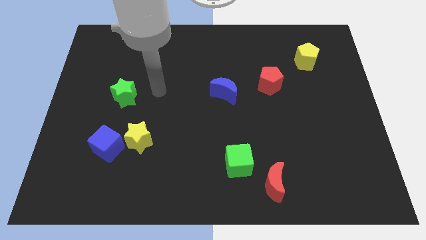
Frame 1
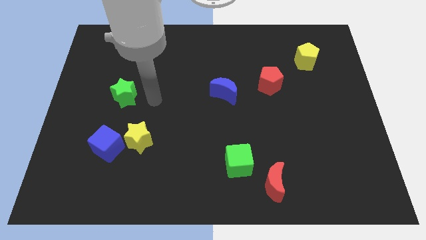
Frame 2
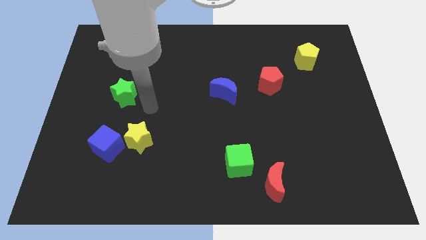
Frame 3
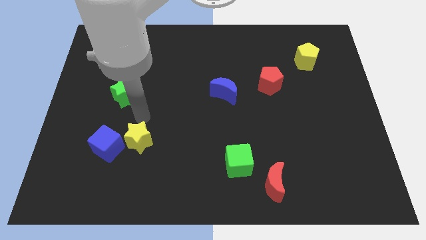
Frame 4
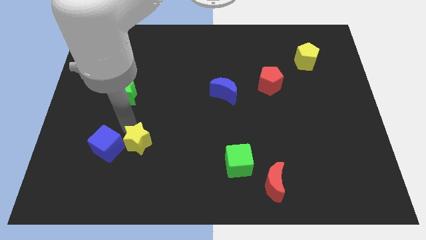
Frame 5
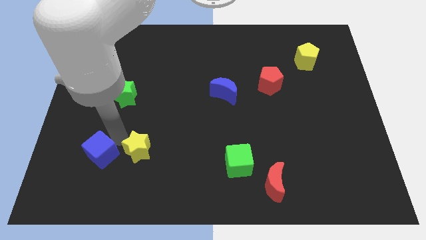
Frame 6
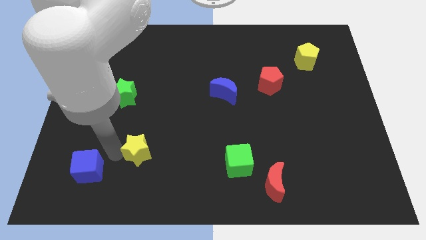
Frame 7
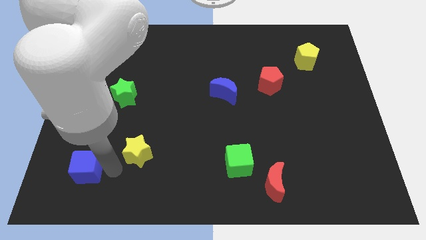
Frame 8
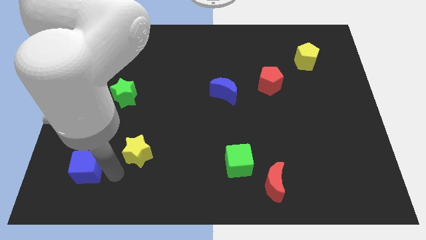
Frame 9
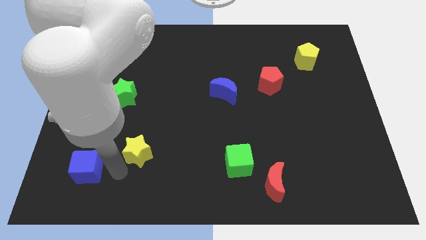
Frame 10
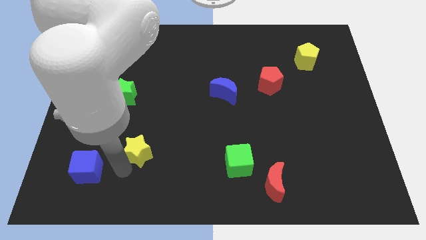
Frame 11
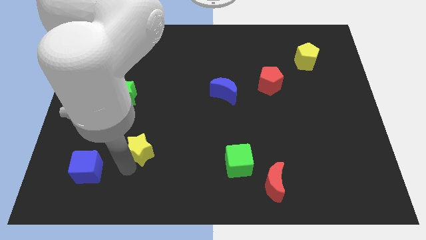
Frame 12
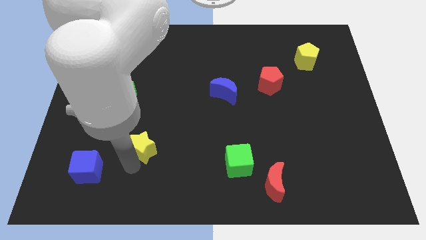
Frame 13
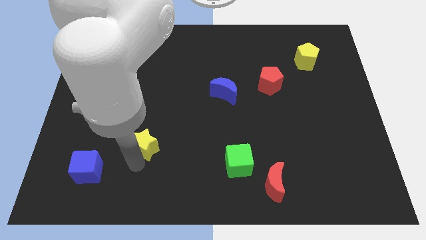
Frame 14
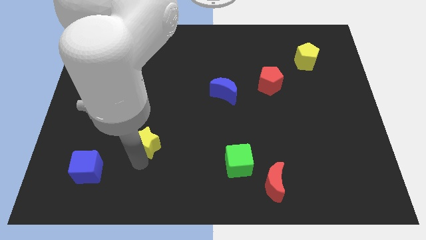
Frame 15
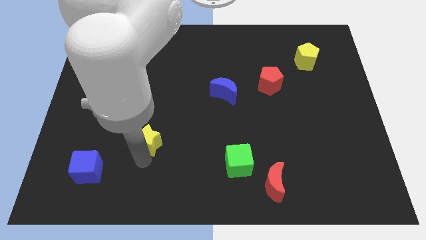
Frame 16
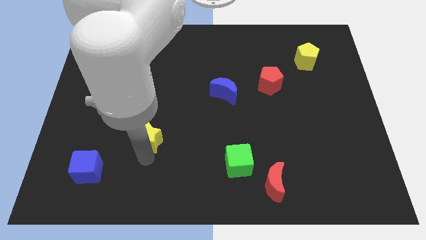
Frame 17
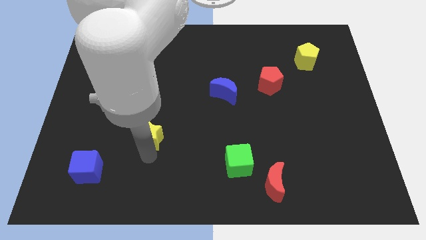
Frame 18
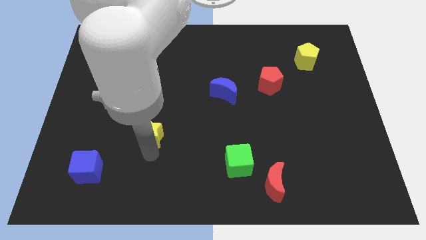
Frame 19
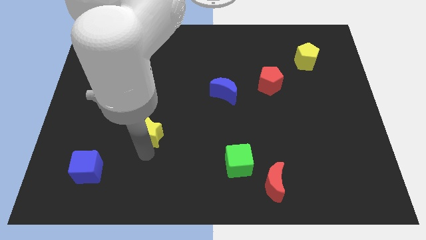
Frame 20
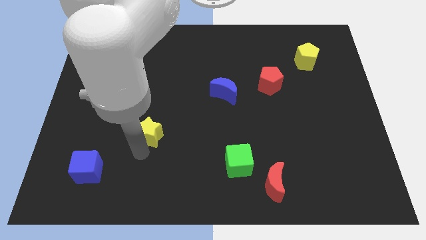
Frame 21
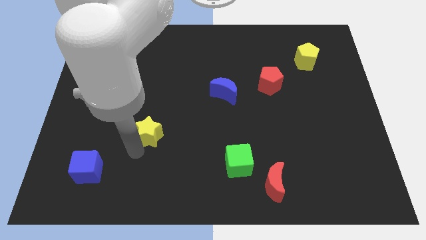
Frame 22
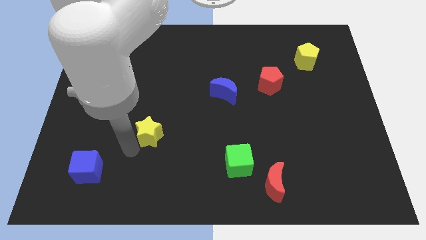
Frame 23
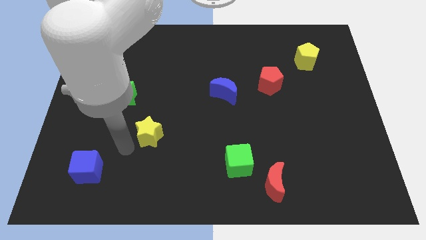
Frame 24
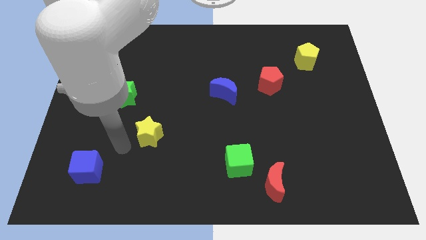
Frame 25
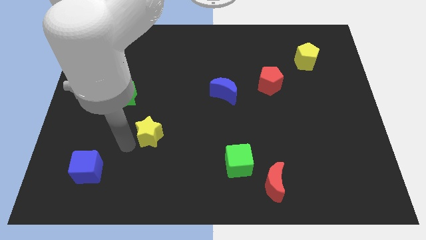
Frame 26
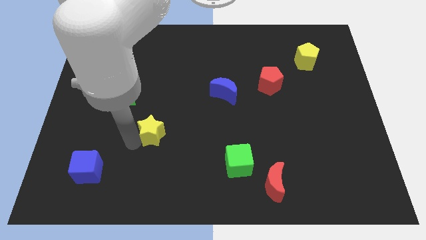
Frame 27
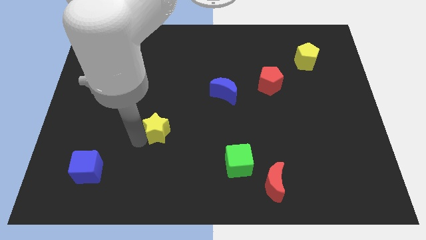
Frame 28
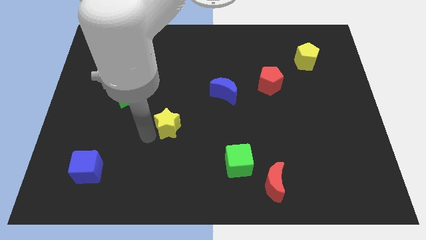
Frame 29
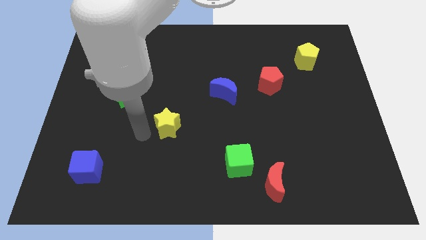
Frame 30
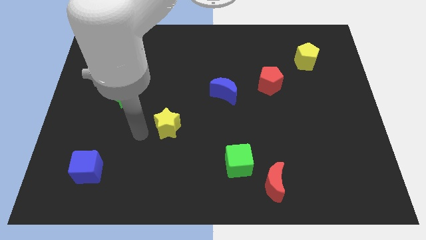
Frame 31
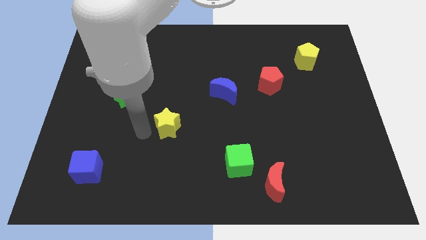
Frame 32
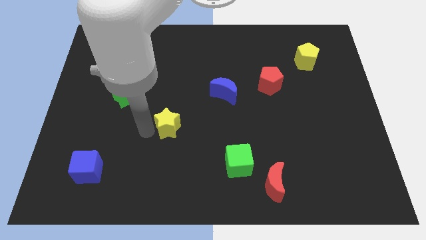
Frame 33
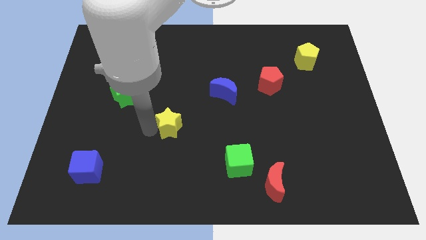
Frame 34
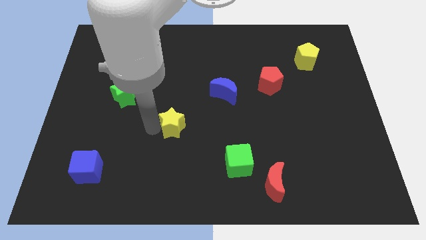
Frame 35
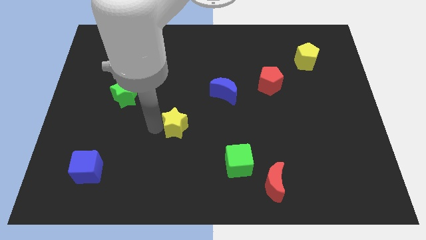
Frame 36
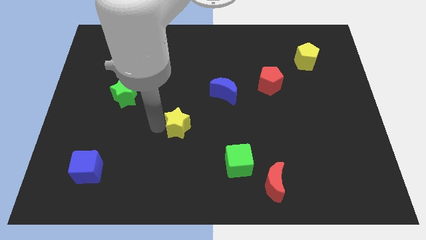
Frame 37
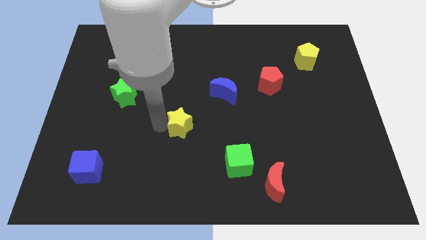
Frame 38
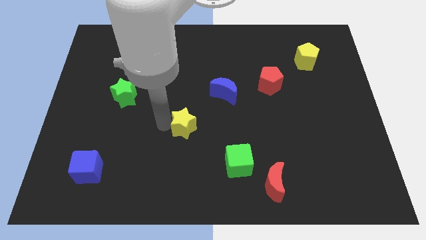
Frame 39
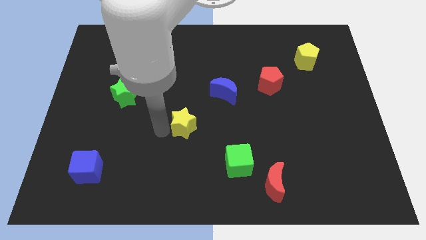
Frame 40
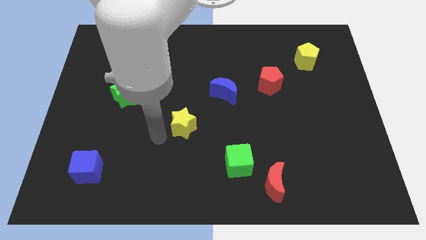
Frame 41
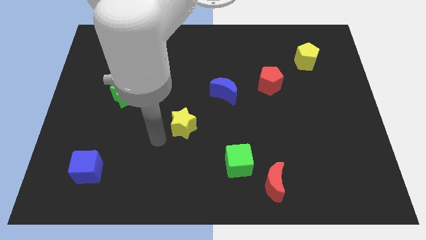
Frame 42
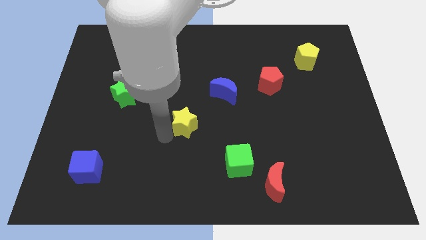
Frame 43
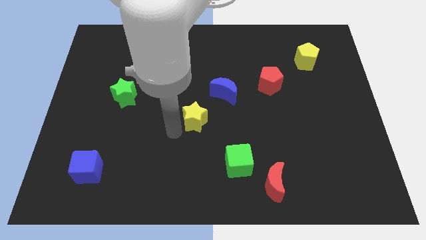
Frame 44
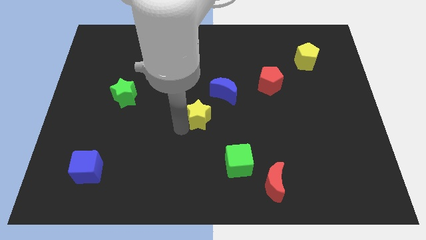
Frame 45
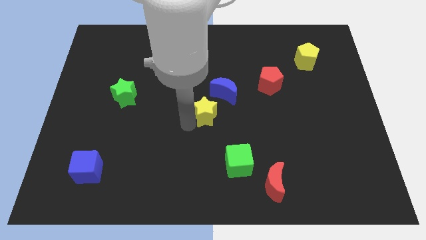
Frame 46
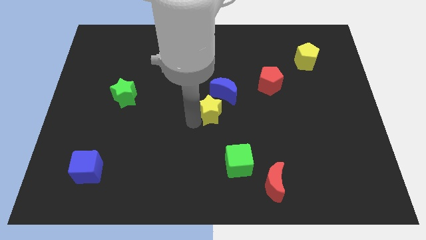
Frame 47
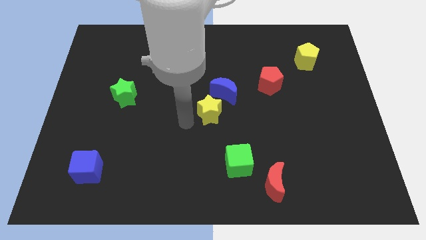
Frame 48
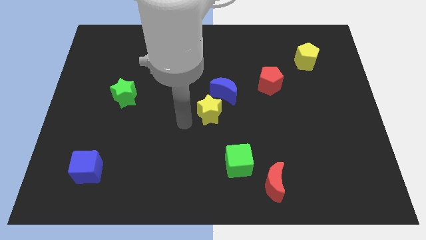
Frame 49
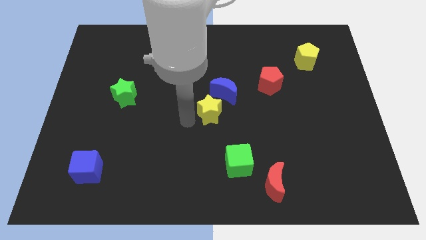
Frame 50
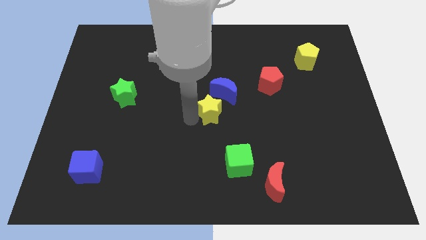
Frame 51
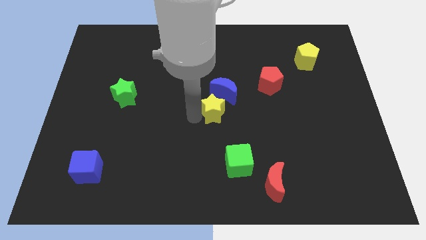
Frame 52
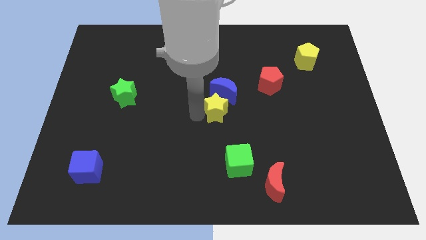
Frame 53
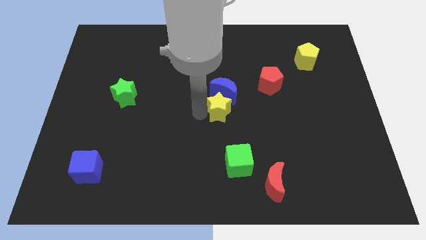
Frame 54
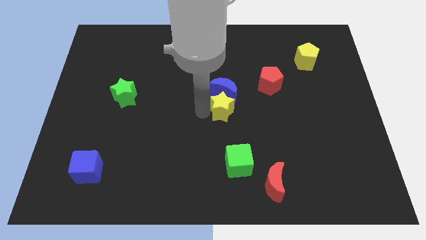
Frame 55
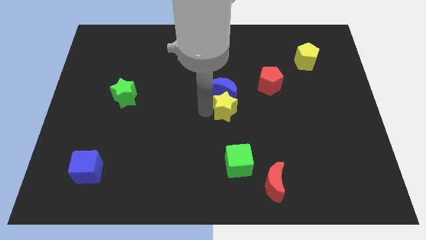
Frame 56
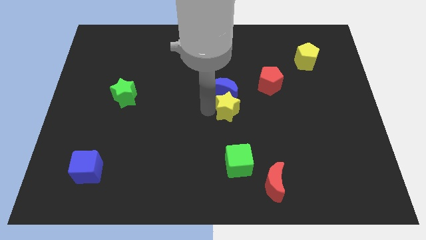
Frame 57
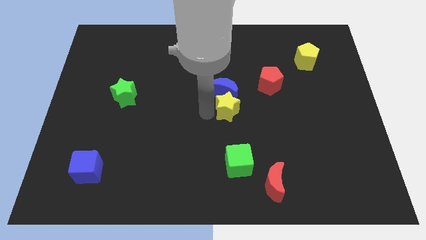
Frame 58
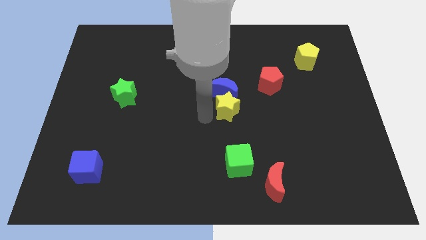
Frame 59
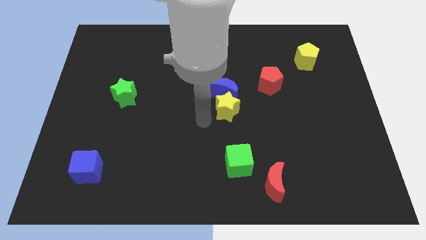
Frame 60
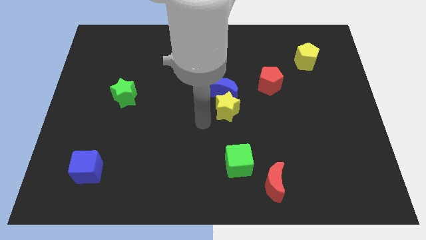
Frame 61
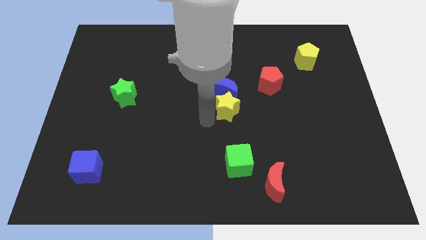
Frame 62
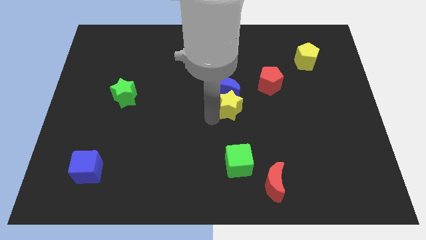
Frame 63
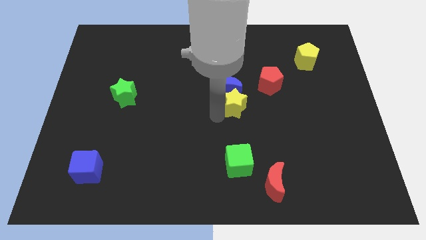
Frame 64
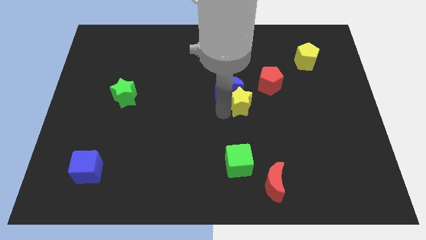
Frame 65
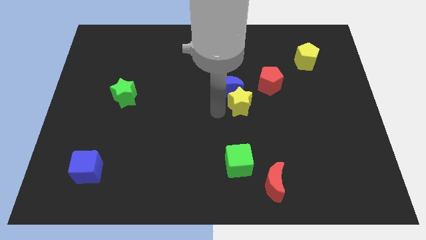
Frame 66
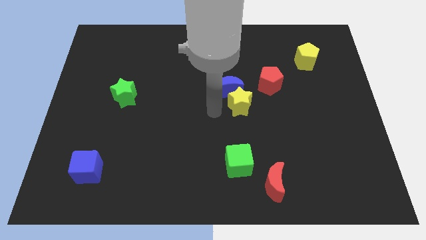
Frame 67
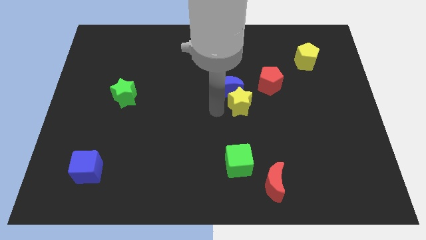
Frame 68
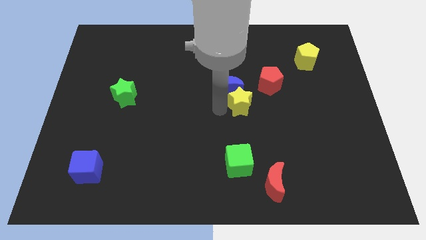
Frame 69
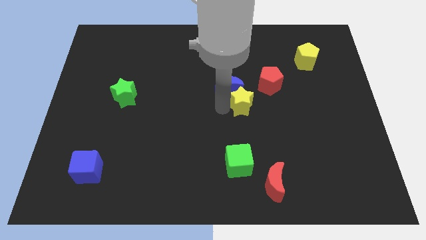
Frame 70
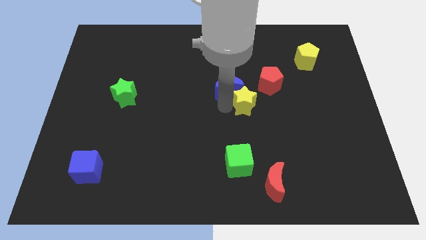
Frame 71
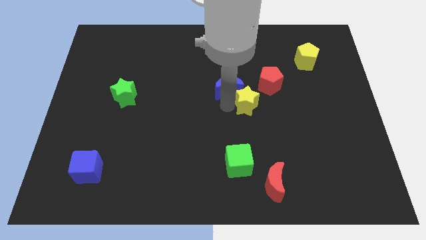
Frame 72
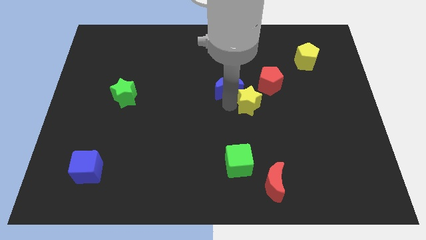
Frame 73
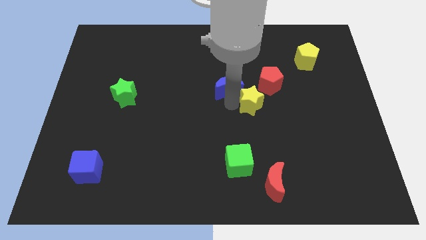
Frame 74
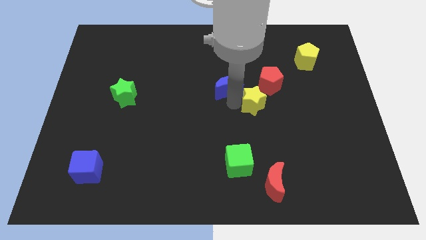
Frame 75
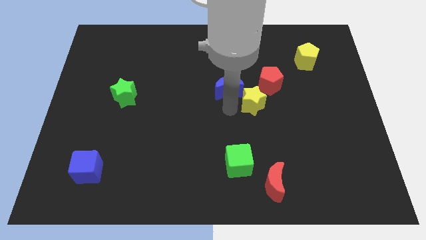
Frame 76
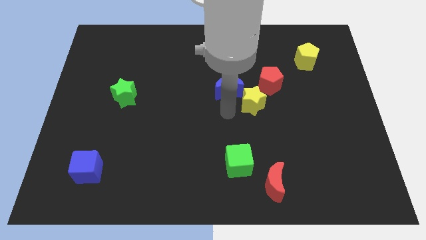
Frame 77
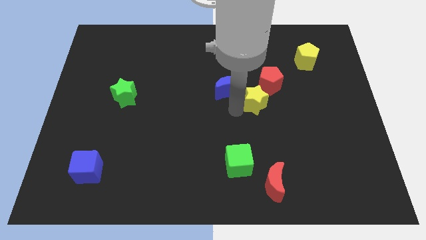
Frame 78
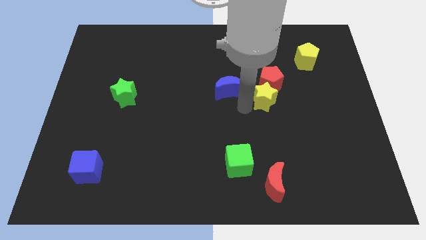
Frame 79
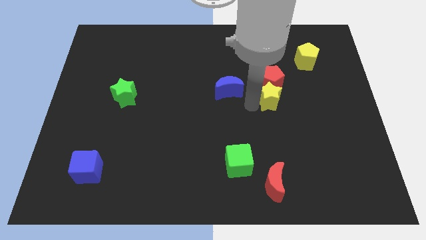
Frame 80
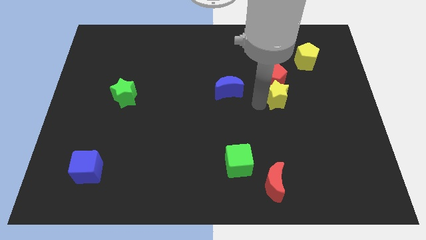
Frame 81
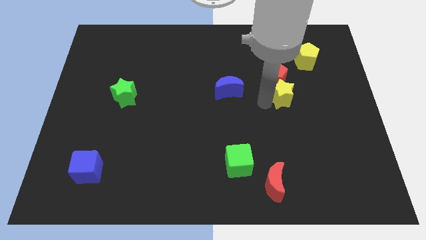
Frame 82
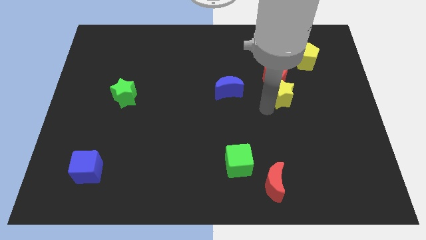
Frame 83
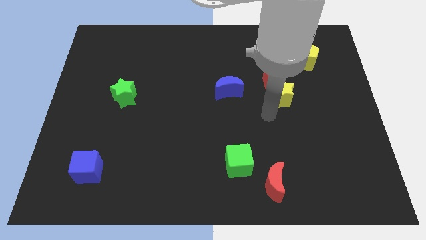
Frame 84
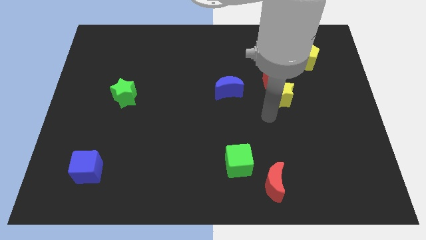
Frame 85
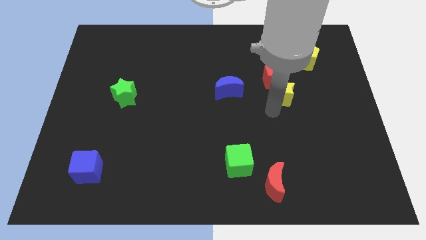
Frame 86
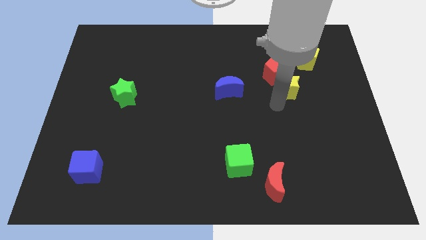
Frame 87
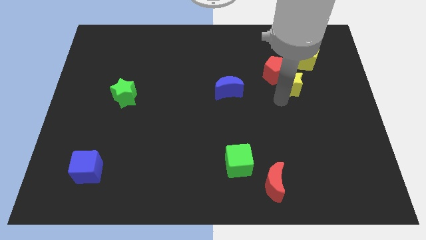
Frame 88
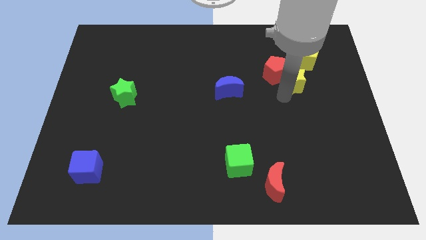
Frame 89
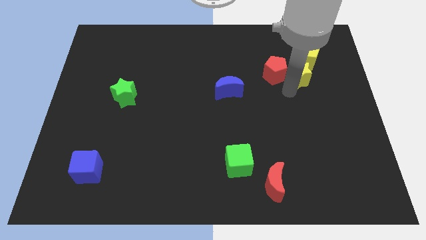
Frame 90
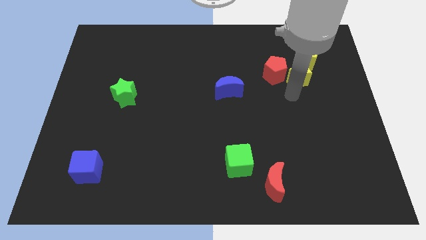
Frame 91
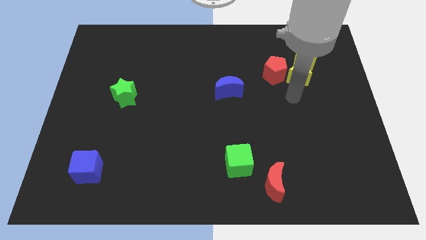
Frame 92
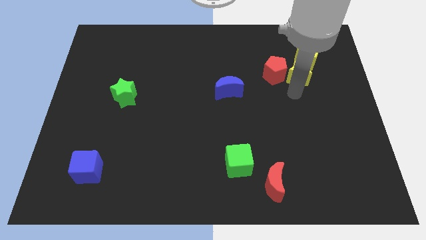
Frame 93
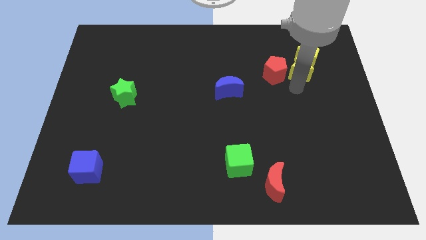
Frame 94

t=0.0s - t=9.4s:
push the yellow star close to the yellow pentagon
